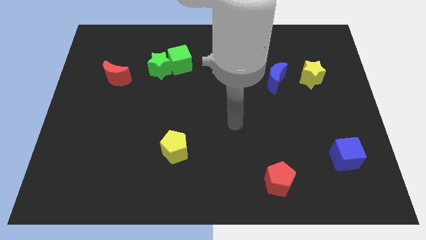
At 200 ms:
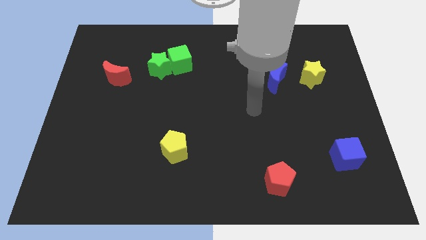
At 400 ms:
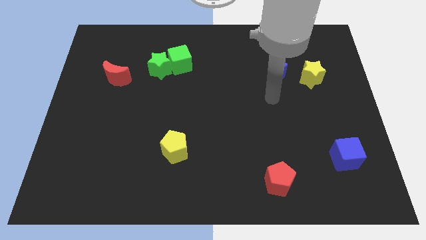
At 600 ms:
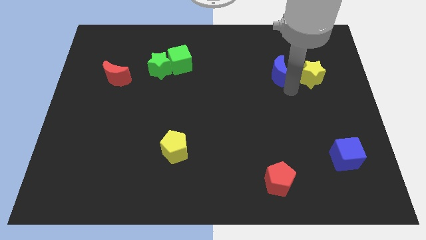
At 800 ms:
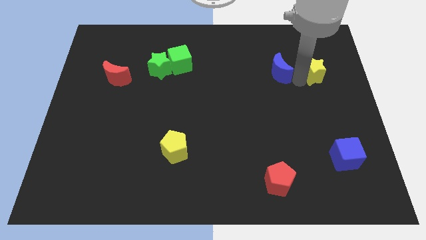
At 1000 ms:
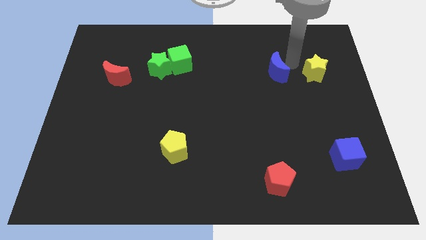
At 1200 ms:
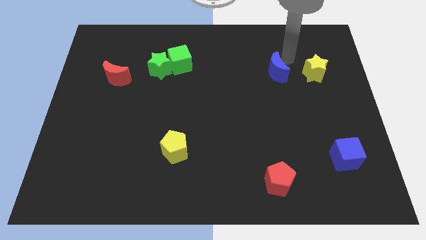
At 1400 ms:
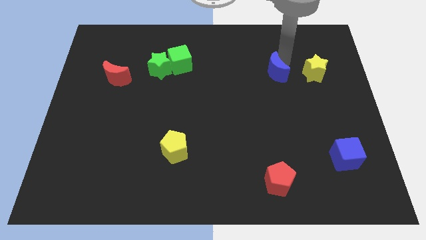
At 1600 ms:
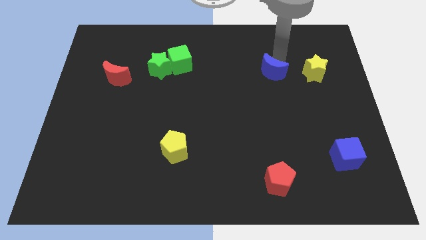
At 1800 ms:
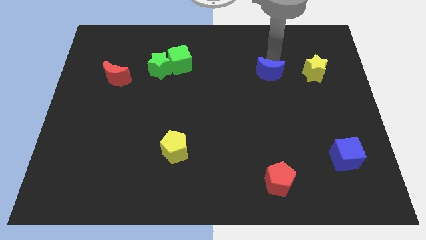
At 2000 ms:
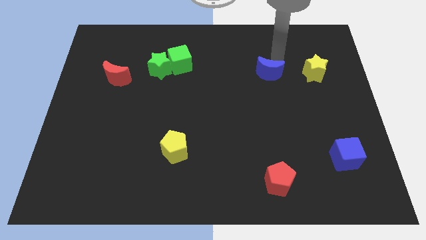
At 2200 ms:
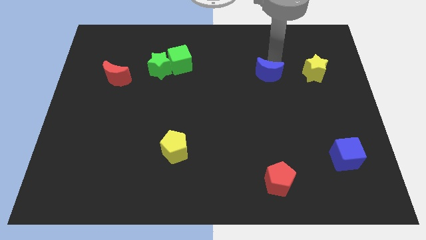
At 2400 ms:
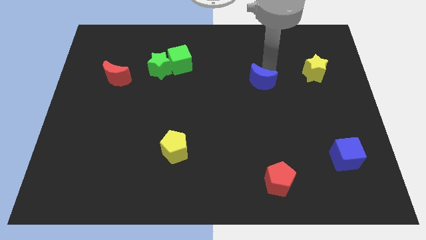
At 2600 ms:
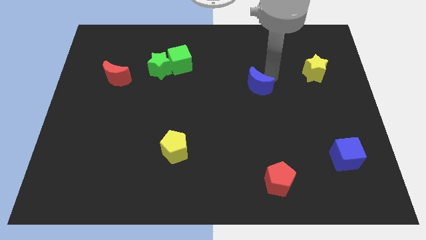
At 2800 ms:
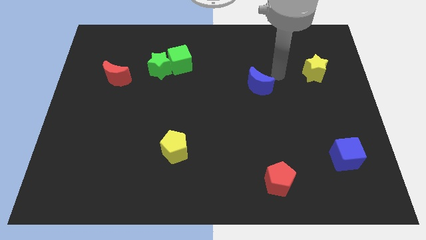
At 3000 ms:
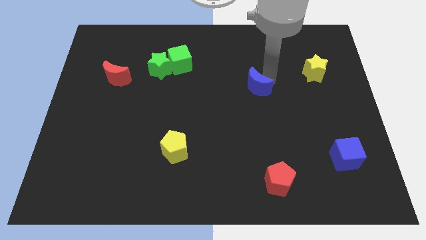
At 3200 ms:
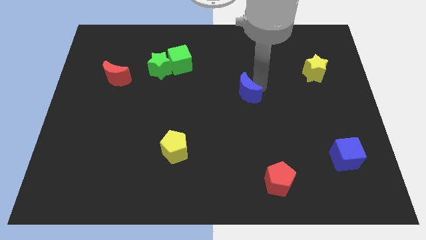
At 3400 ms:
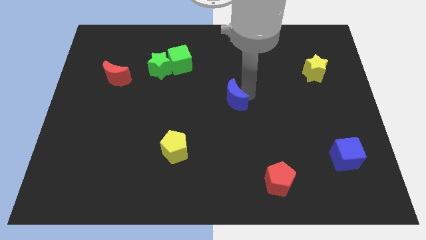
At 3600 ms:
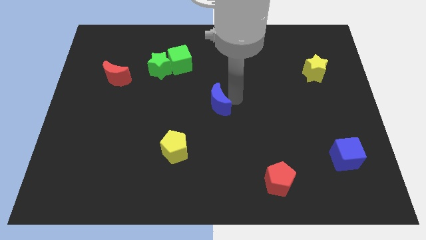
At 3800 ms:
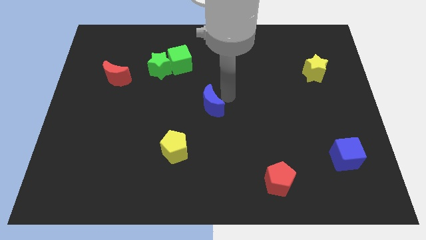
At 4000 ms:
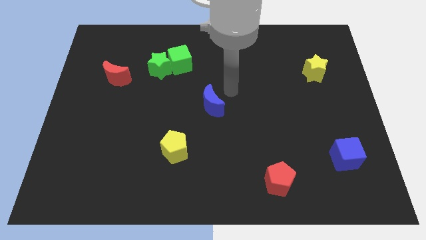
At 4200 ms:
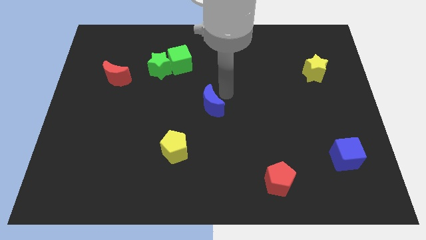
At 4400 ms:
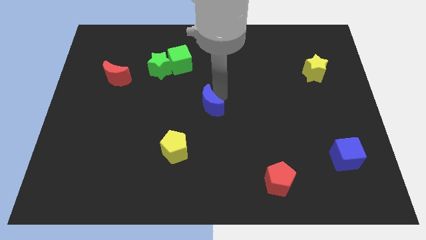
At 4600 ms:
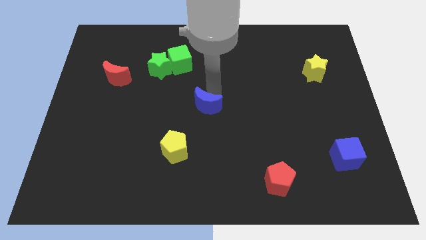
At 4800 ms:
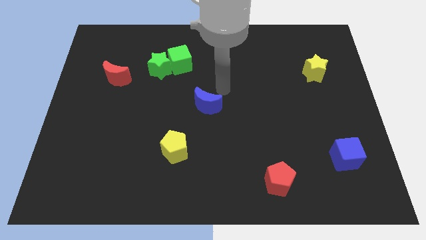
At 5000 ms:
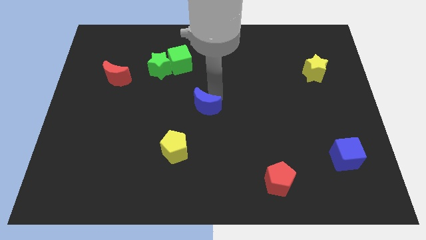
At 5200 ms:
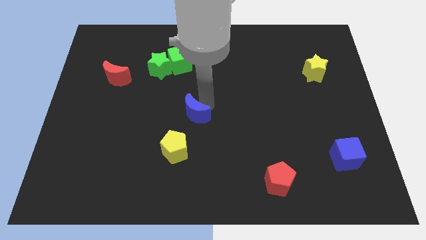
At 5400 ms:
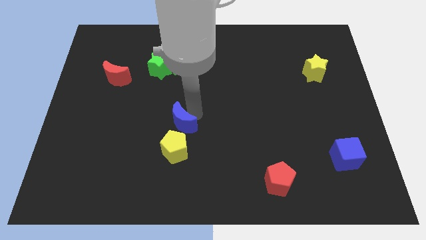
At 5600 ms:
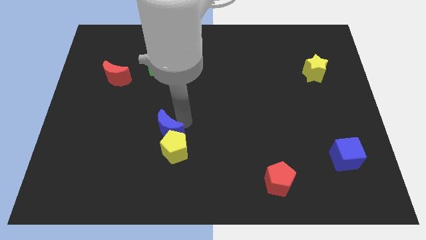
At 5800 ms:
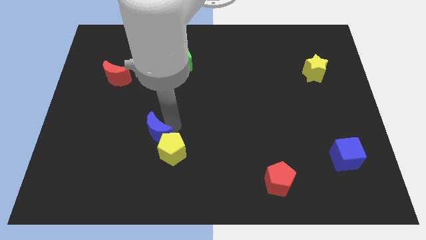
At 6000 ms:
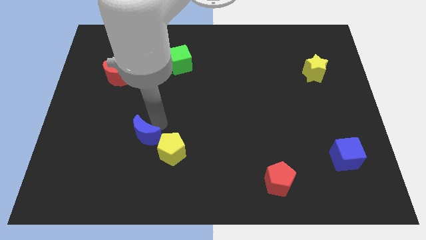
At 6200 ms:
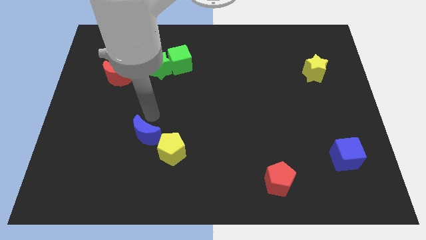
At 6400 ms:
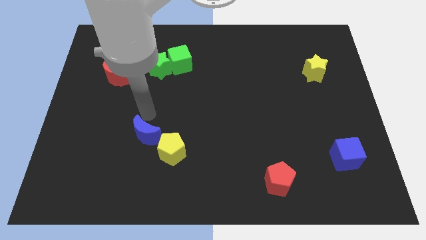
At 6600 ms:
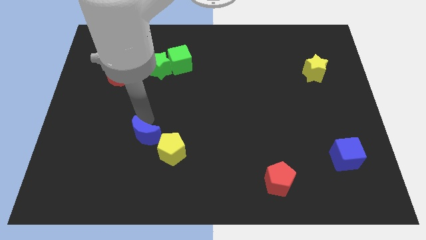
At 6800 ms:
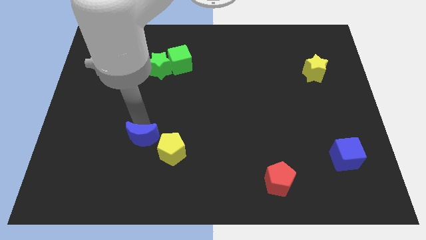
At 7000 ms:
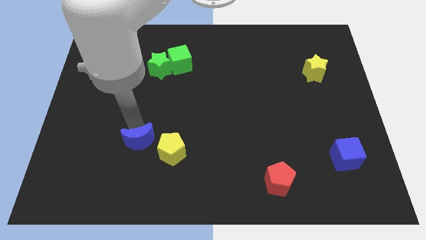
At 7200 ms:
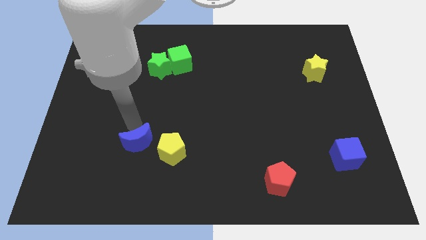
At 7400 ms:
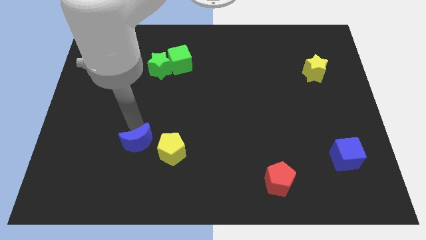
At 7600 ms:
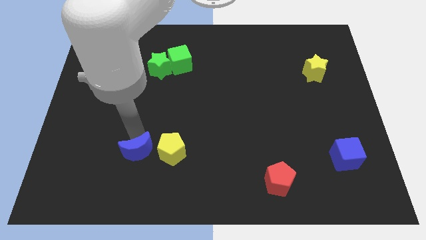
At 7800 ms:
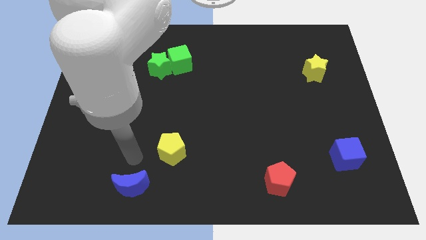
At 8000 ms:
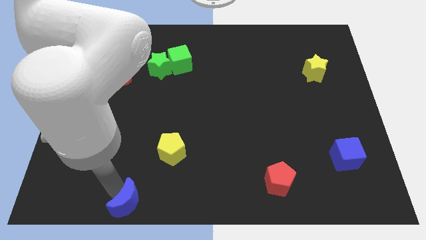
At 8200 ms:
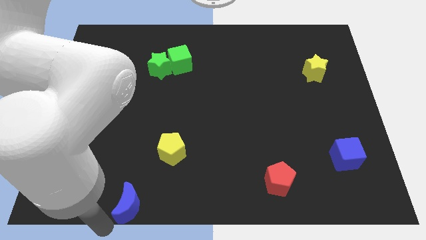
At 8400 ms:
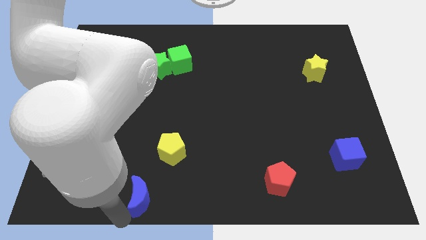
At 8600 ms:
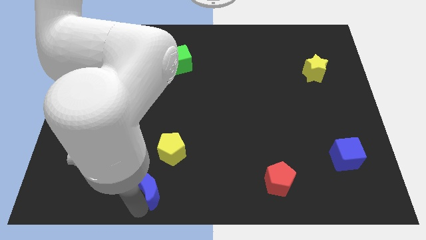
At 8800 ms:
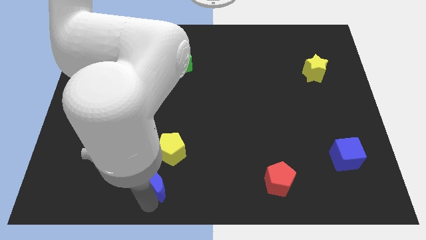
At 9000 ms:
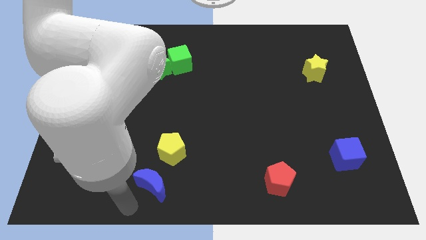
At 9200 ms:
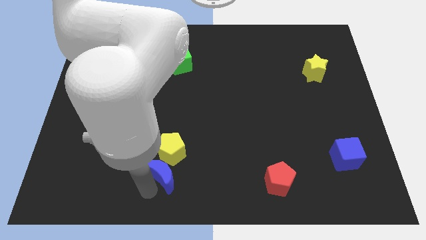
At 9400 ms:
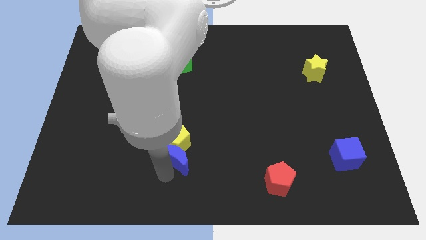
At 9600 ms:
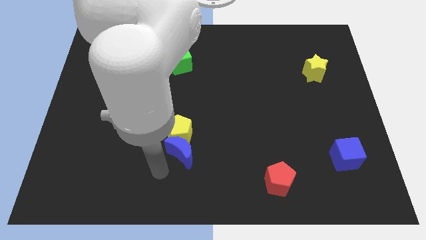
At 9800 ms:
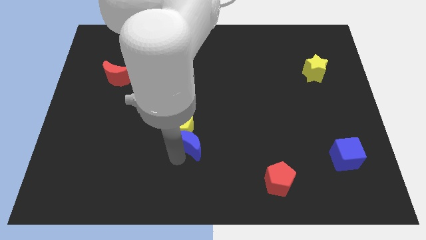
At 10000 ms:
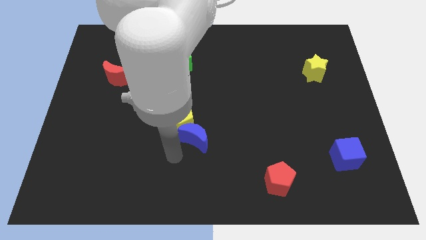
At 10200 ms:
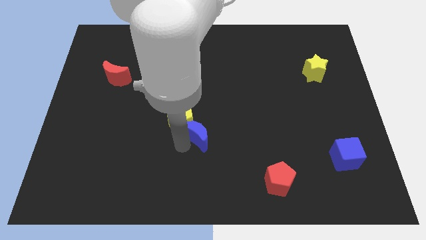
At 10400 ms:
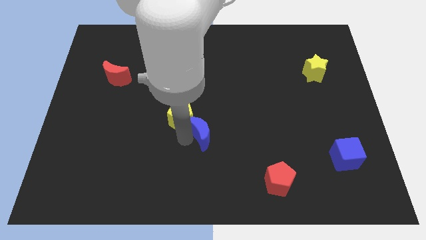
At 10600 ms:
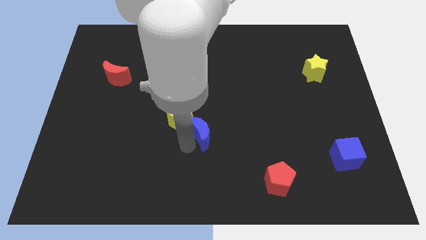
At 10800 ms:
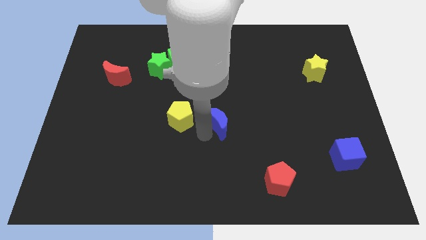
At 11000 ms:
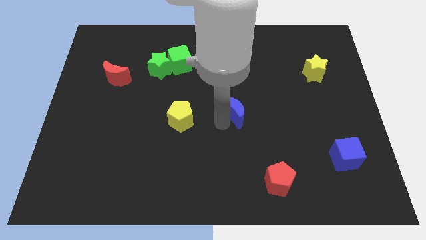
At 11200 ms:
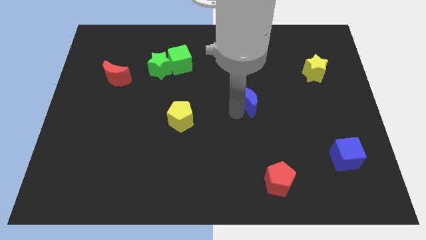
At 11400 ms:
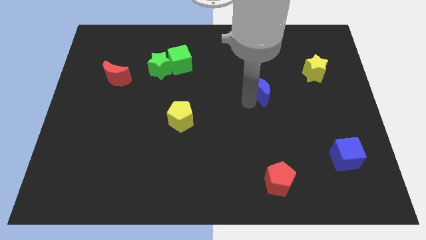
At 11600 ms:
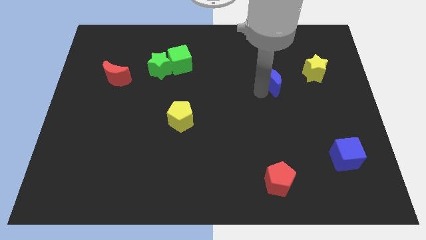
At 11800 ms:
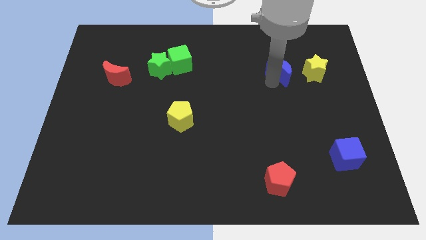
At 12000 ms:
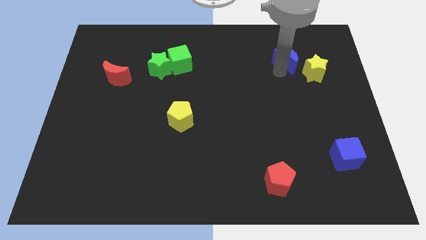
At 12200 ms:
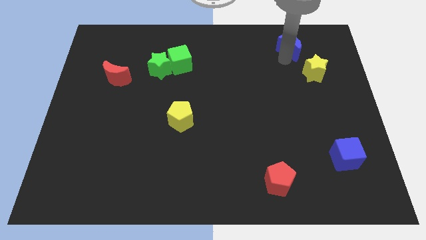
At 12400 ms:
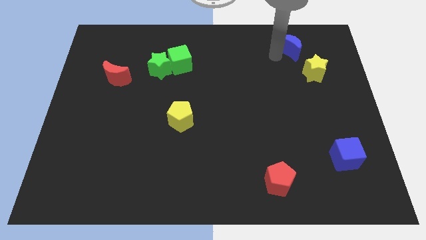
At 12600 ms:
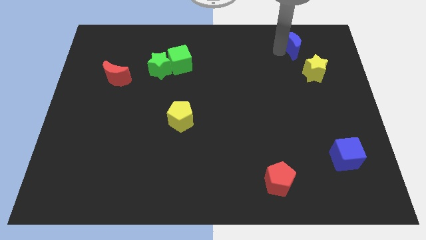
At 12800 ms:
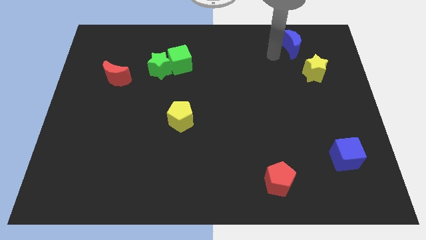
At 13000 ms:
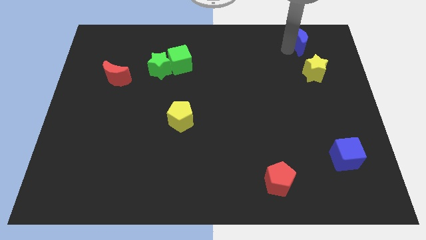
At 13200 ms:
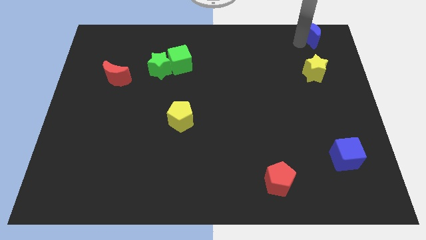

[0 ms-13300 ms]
slide the blue moon to the top right

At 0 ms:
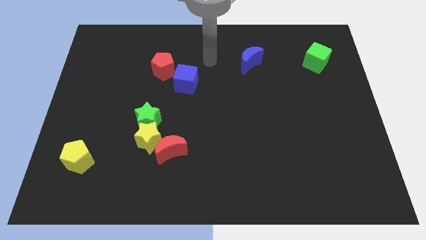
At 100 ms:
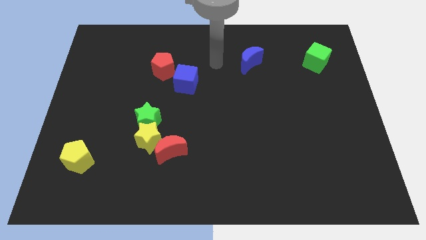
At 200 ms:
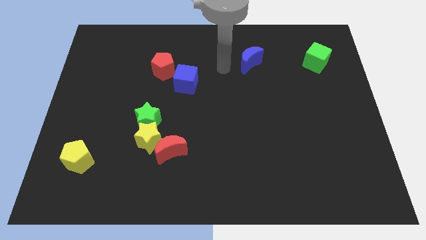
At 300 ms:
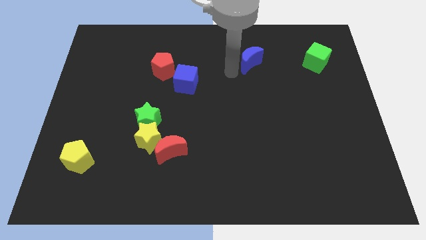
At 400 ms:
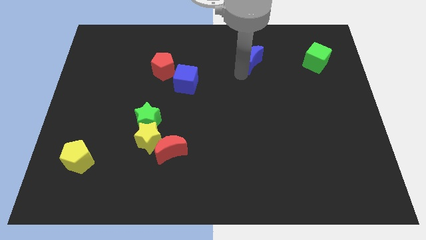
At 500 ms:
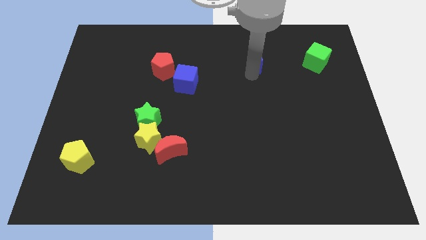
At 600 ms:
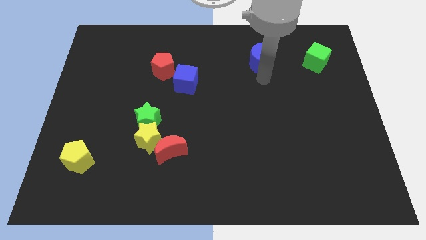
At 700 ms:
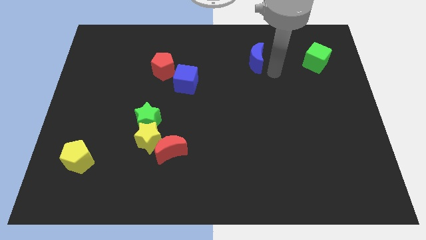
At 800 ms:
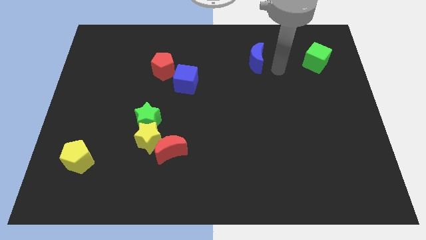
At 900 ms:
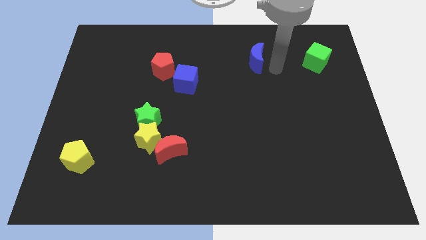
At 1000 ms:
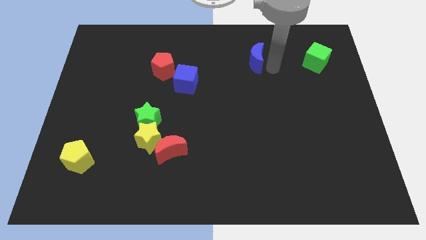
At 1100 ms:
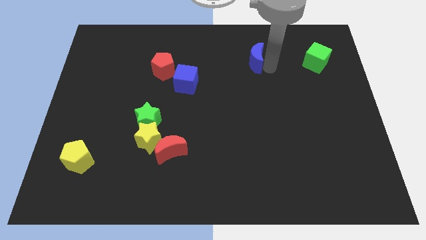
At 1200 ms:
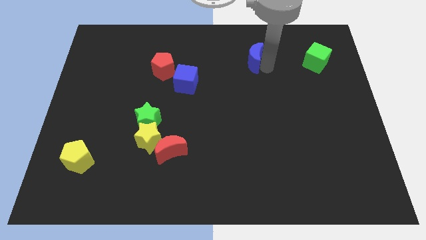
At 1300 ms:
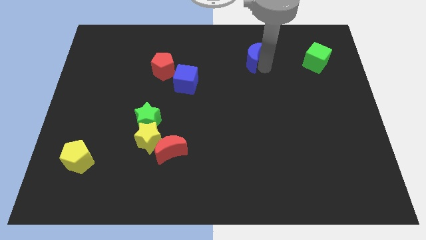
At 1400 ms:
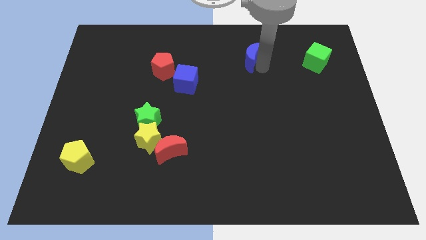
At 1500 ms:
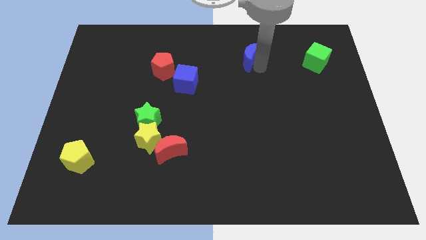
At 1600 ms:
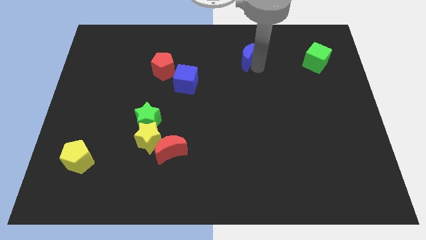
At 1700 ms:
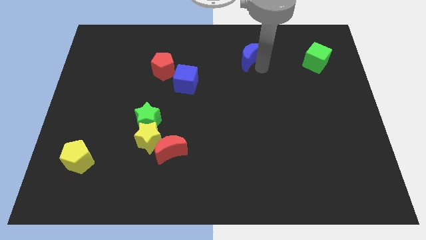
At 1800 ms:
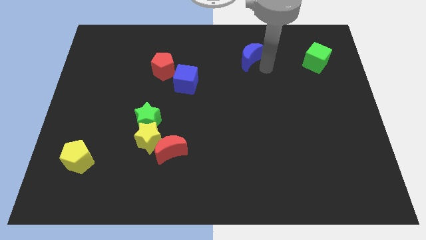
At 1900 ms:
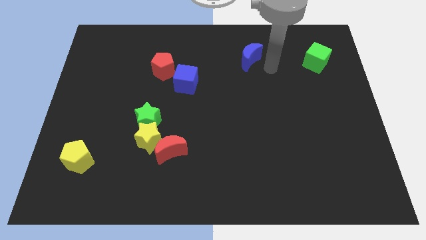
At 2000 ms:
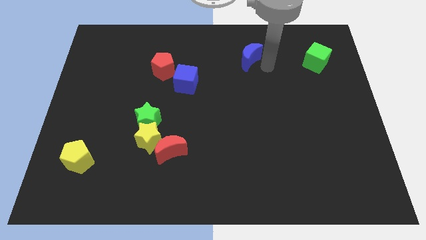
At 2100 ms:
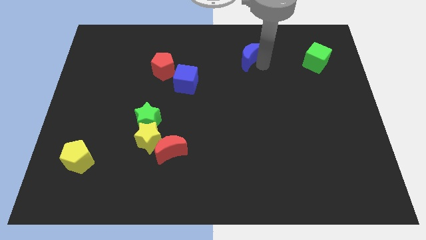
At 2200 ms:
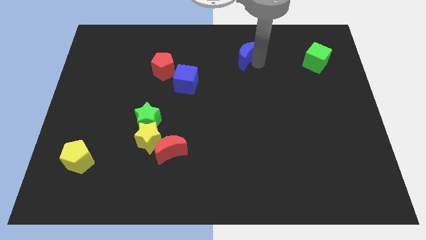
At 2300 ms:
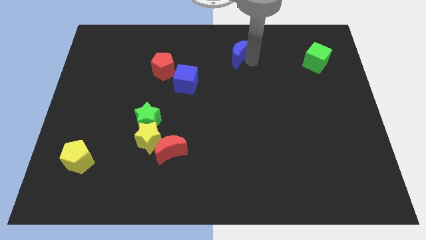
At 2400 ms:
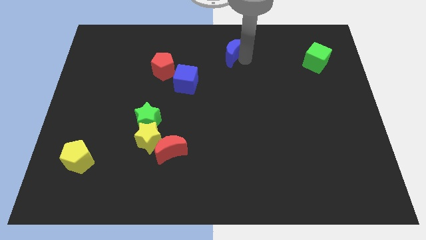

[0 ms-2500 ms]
move the blue moon to the top side
